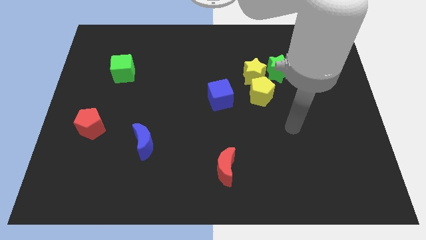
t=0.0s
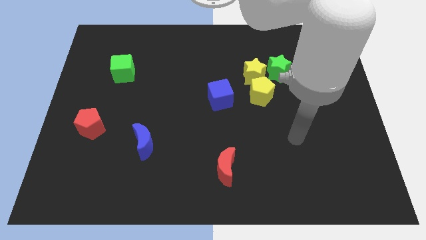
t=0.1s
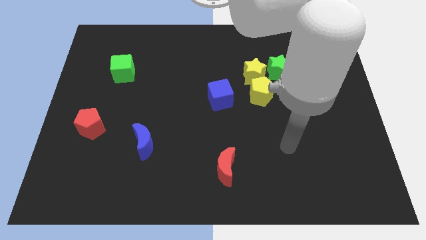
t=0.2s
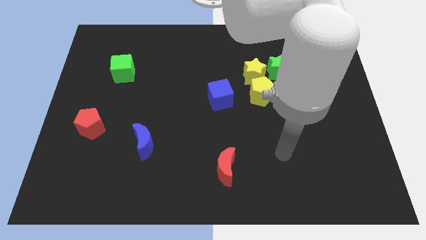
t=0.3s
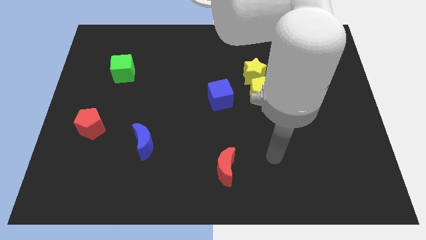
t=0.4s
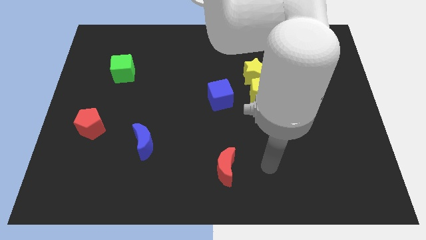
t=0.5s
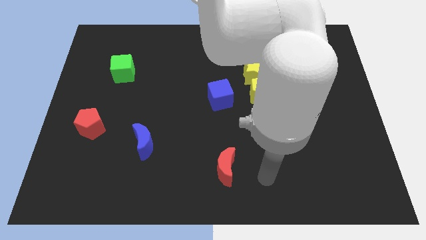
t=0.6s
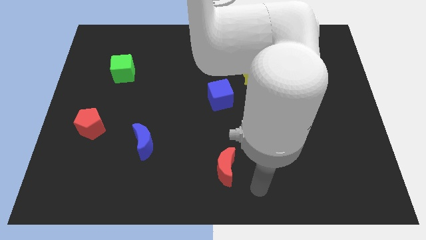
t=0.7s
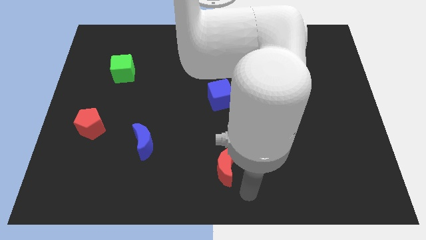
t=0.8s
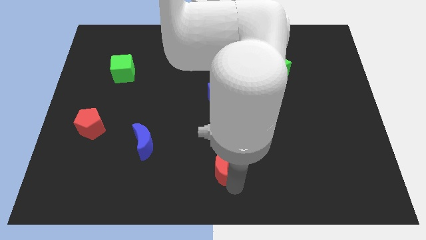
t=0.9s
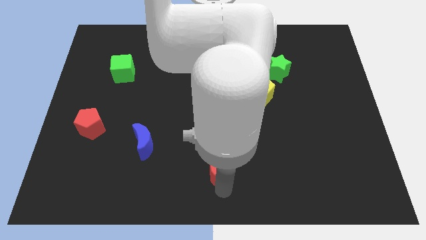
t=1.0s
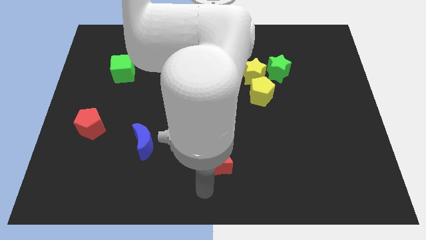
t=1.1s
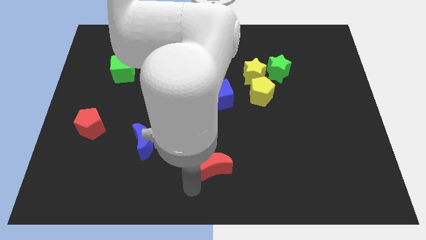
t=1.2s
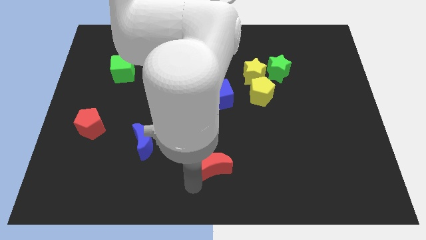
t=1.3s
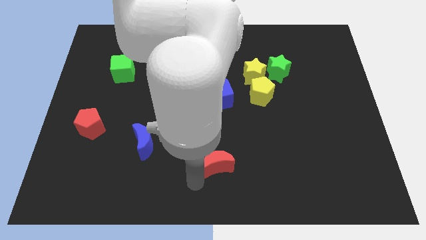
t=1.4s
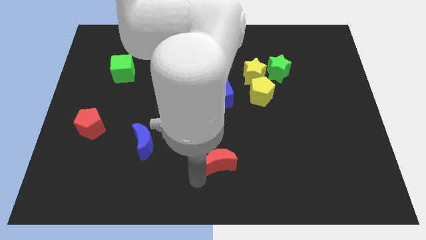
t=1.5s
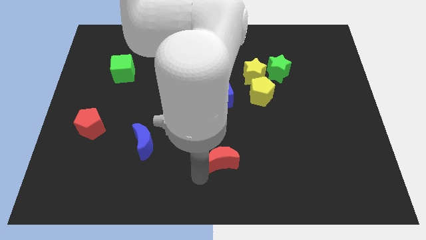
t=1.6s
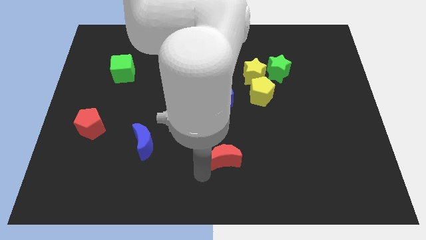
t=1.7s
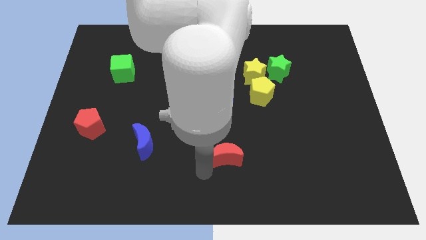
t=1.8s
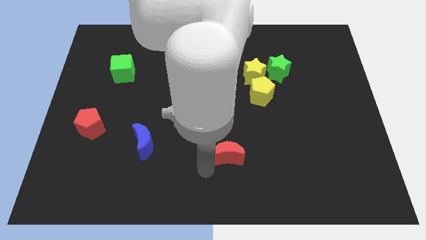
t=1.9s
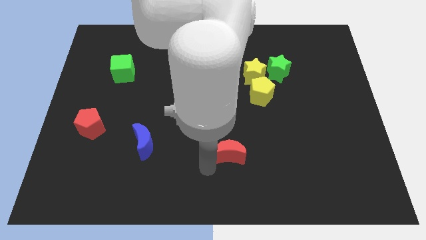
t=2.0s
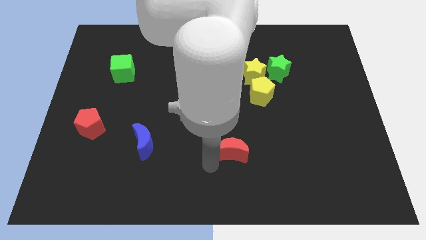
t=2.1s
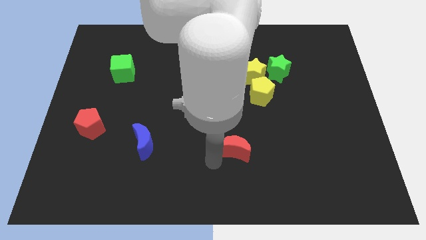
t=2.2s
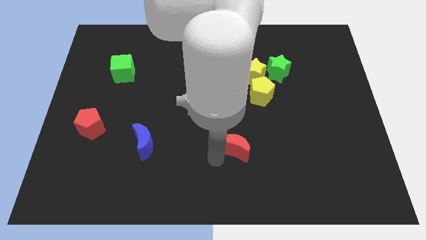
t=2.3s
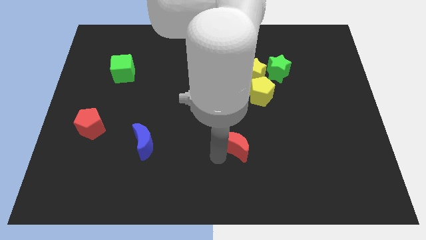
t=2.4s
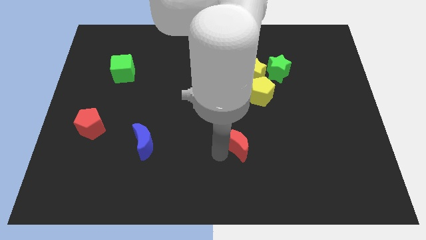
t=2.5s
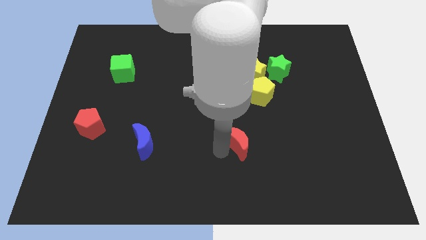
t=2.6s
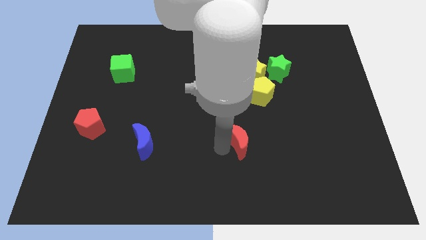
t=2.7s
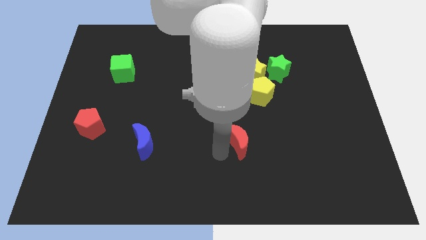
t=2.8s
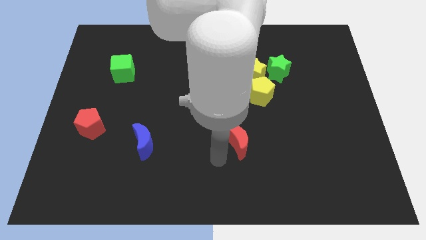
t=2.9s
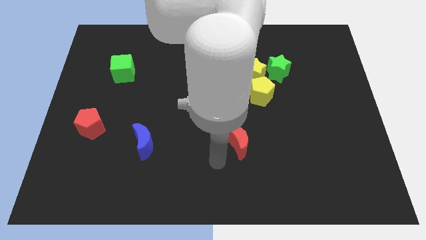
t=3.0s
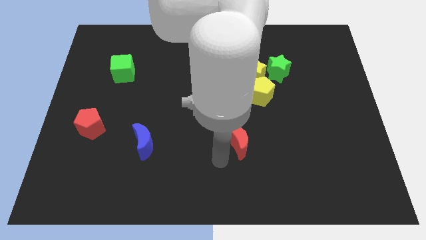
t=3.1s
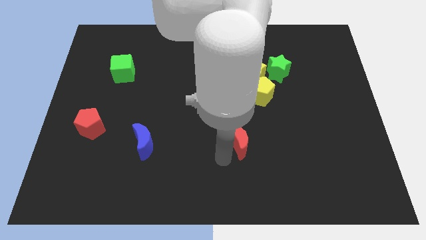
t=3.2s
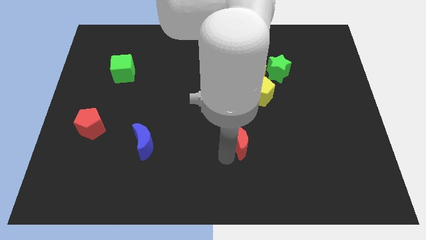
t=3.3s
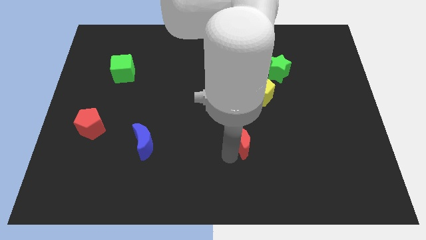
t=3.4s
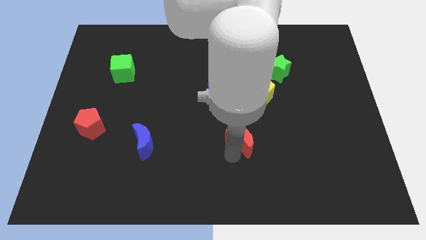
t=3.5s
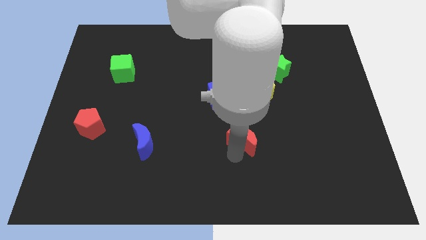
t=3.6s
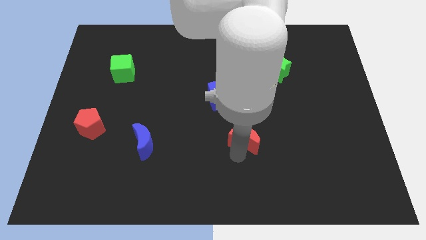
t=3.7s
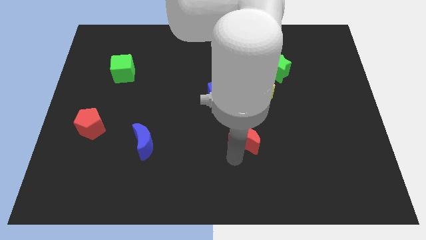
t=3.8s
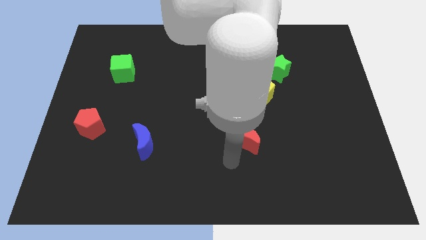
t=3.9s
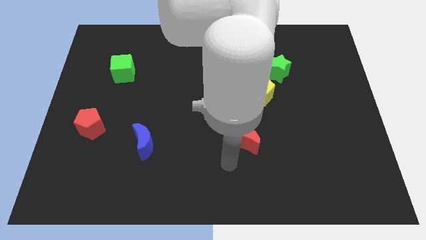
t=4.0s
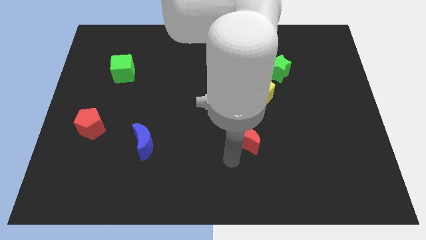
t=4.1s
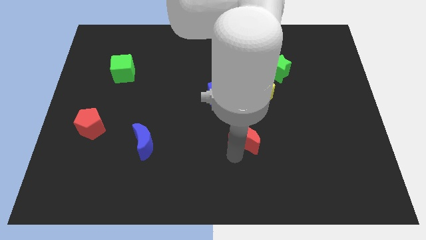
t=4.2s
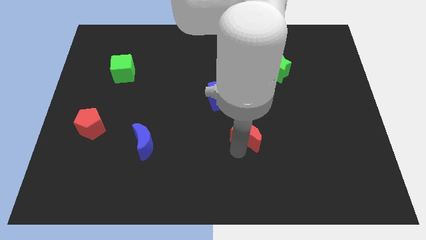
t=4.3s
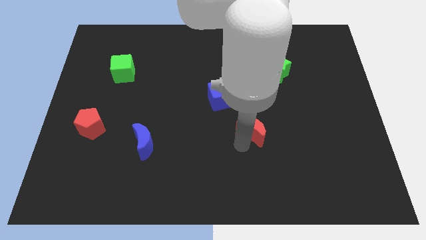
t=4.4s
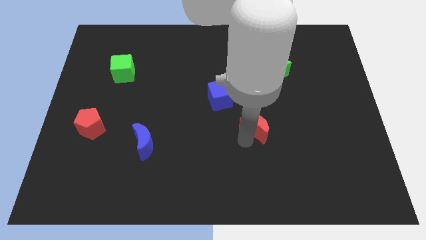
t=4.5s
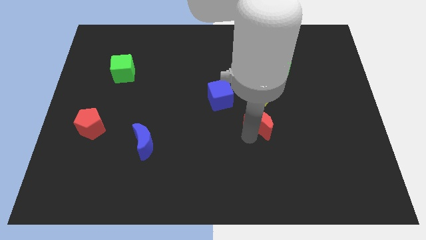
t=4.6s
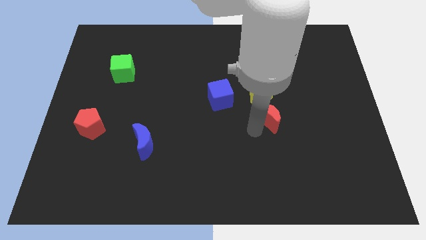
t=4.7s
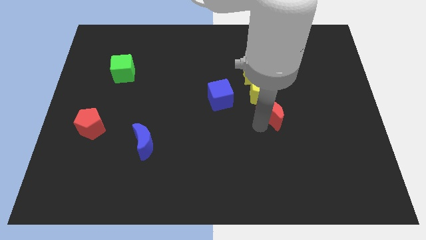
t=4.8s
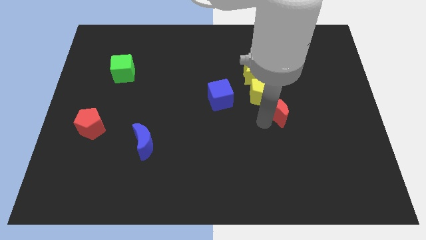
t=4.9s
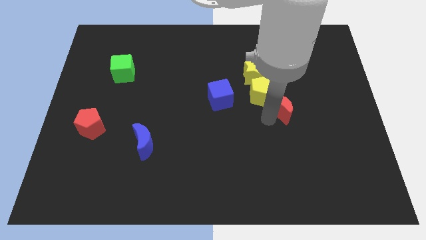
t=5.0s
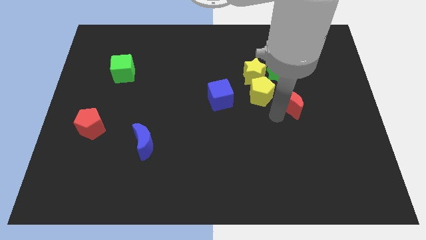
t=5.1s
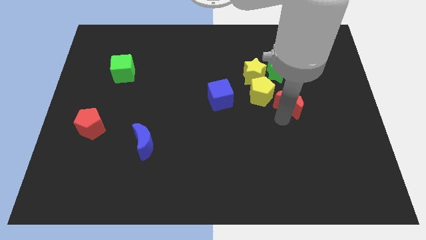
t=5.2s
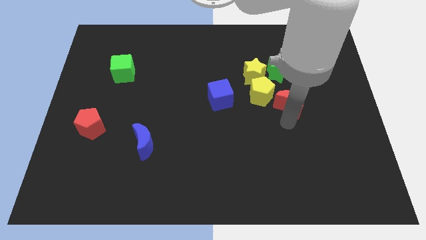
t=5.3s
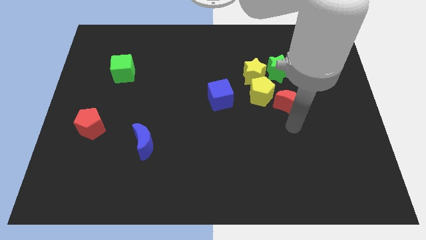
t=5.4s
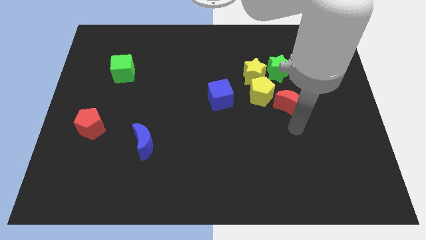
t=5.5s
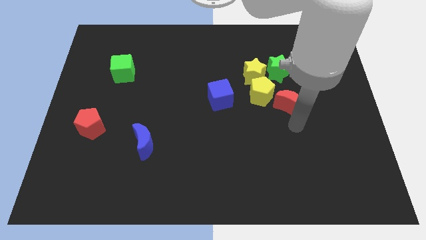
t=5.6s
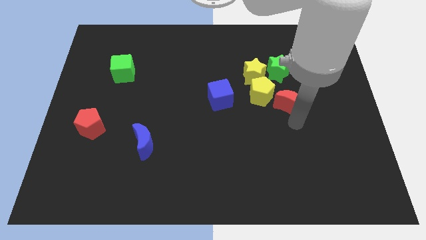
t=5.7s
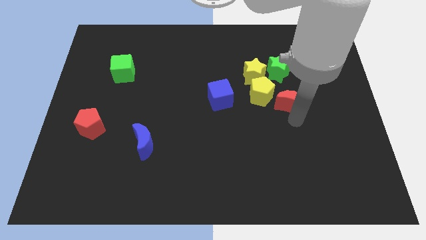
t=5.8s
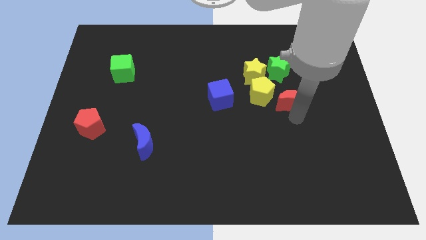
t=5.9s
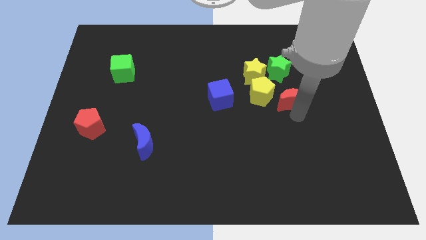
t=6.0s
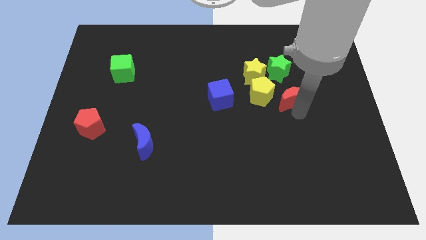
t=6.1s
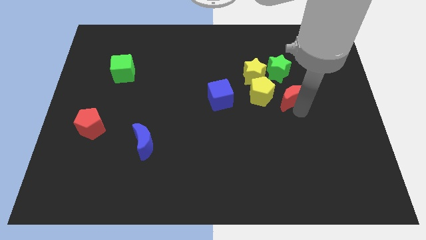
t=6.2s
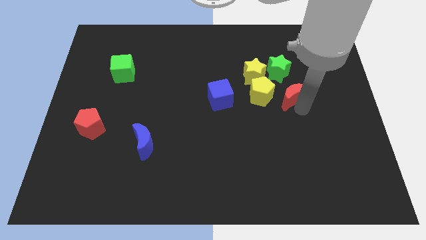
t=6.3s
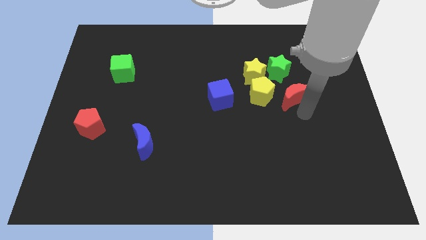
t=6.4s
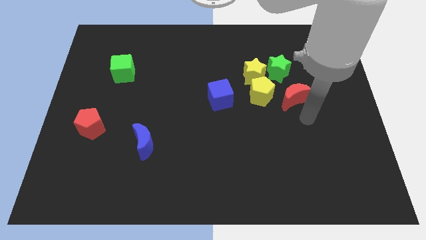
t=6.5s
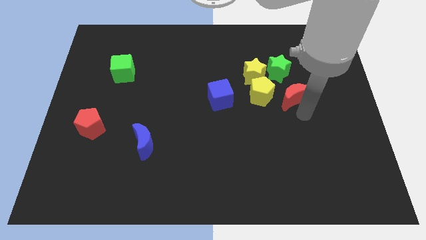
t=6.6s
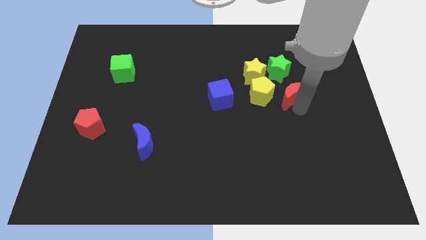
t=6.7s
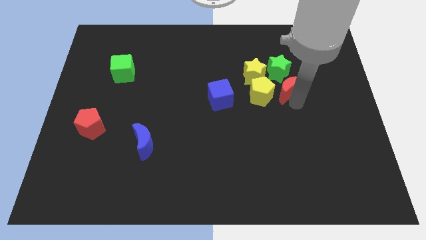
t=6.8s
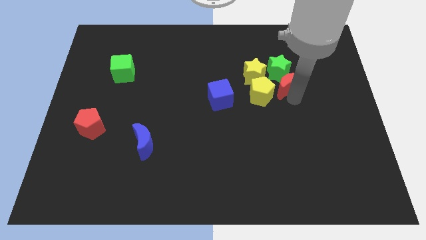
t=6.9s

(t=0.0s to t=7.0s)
move the red moon to the green star
